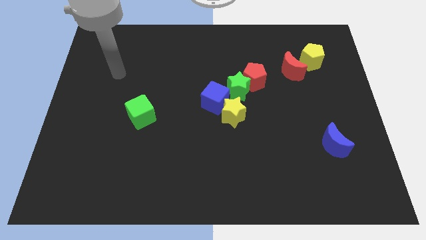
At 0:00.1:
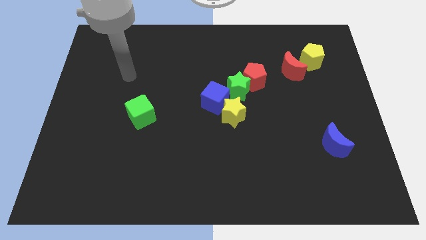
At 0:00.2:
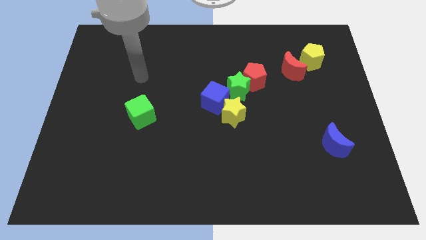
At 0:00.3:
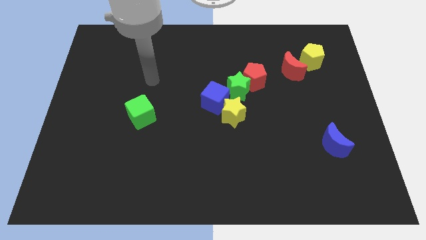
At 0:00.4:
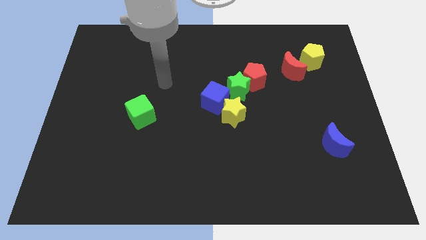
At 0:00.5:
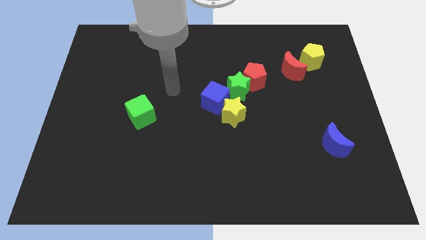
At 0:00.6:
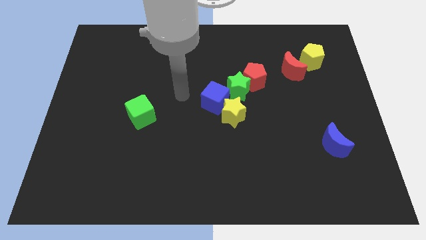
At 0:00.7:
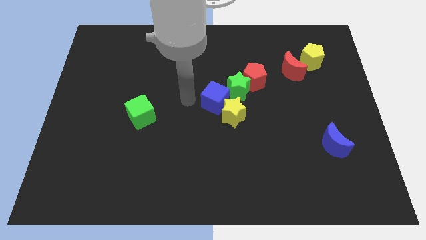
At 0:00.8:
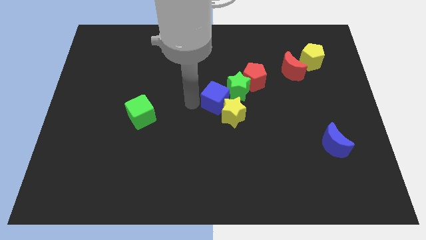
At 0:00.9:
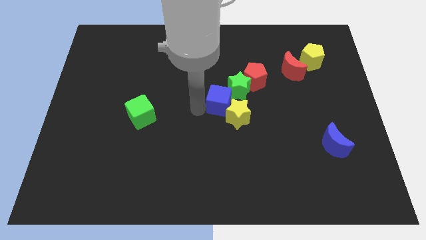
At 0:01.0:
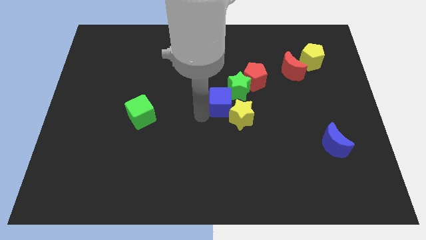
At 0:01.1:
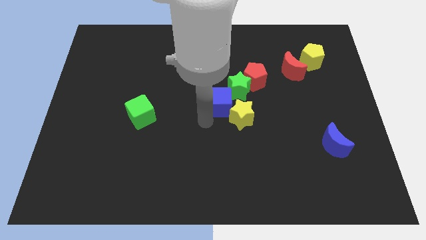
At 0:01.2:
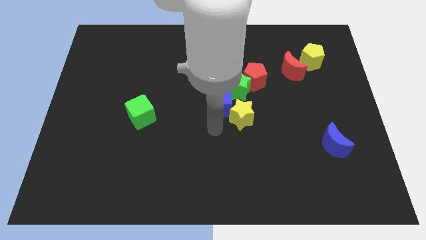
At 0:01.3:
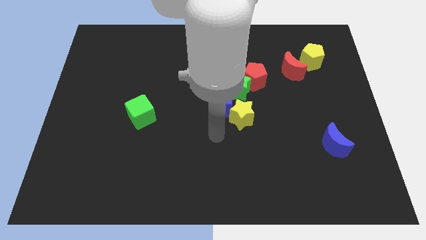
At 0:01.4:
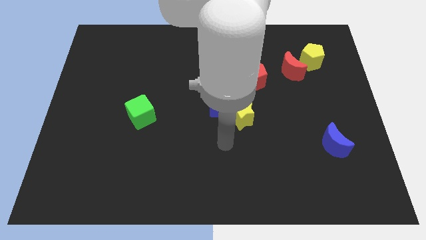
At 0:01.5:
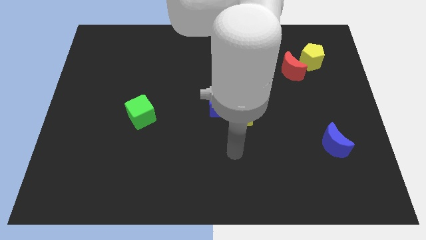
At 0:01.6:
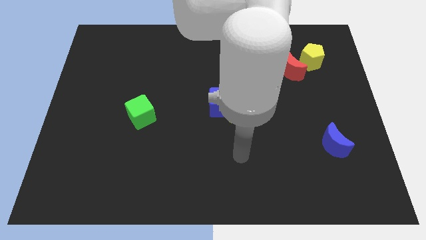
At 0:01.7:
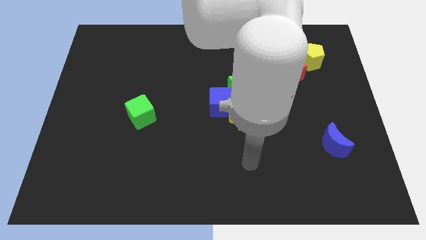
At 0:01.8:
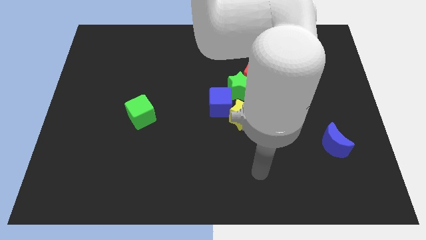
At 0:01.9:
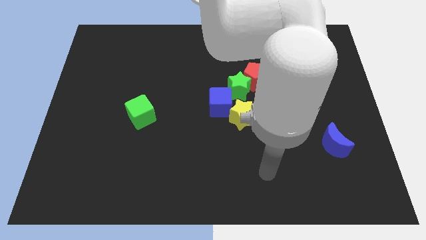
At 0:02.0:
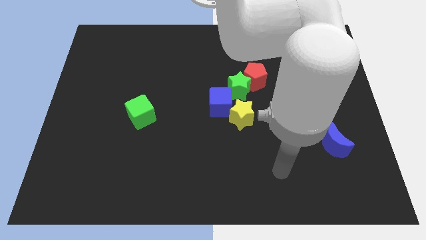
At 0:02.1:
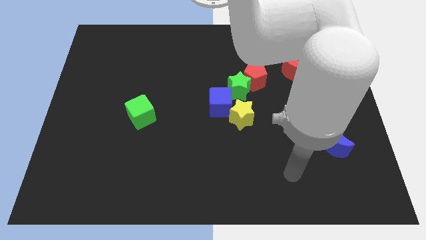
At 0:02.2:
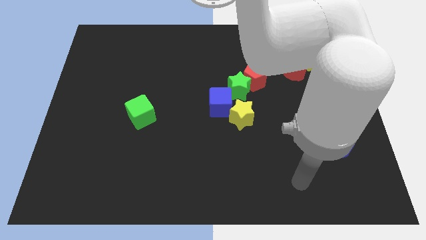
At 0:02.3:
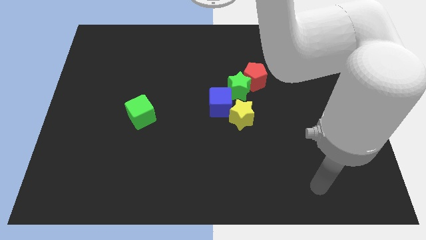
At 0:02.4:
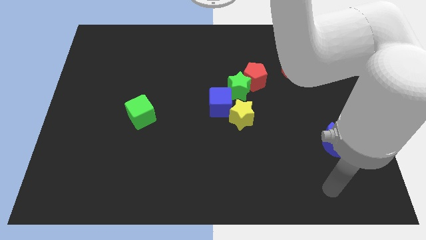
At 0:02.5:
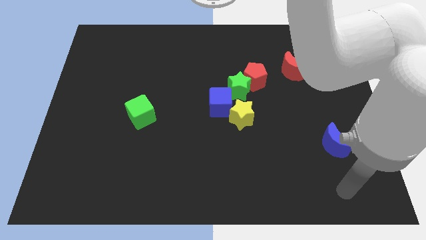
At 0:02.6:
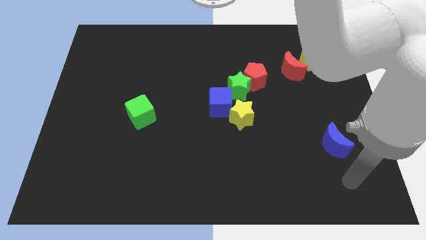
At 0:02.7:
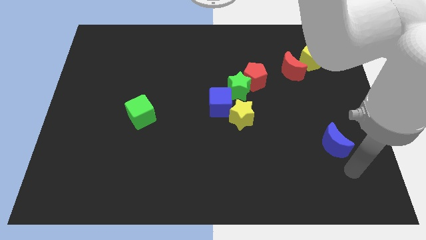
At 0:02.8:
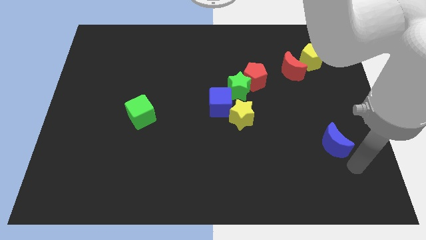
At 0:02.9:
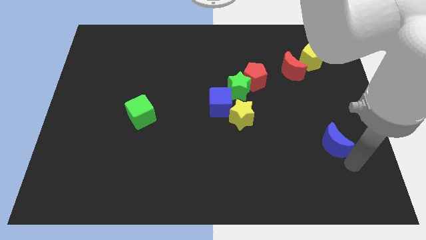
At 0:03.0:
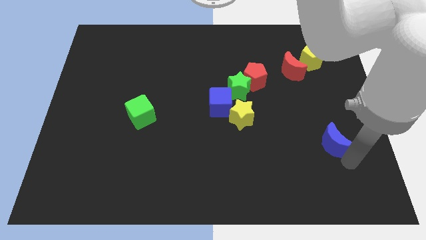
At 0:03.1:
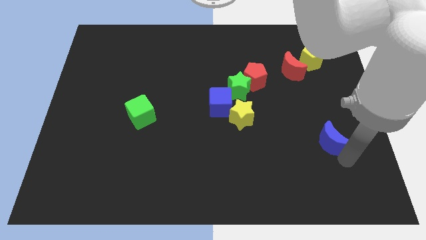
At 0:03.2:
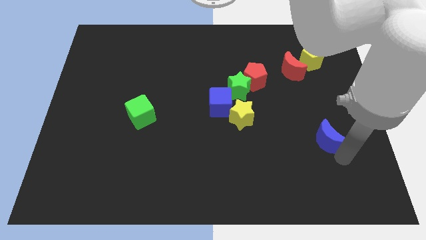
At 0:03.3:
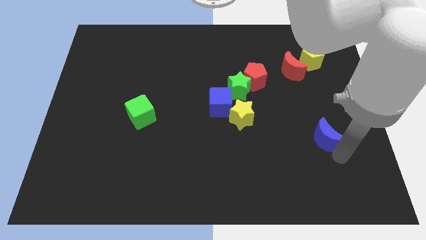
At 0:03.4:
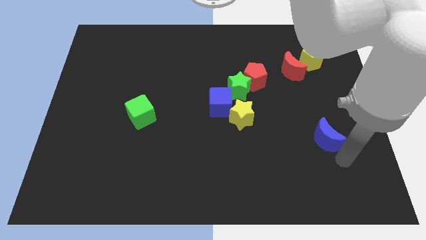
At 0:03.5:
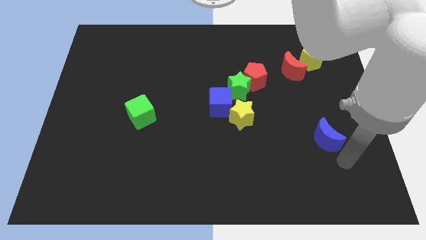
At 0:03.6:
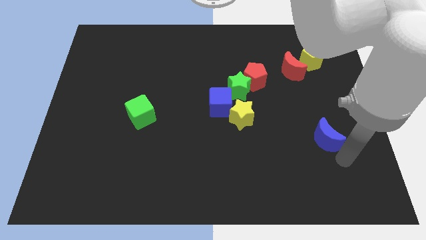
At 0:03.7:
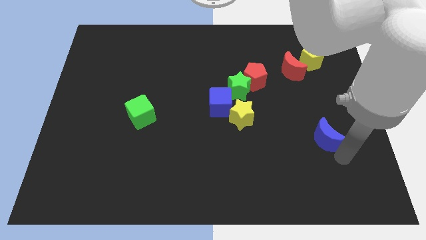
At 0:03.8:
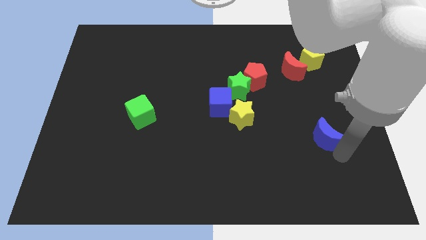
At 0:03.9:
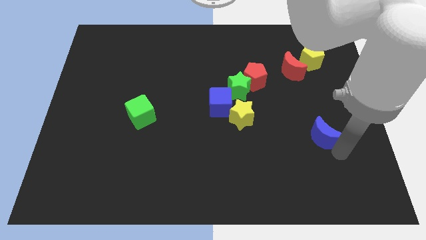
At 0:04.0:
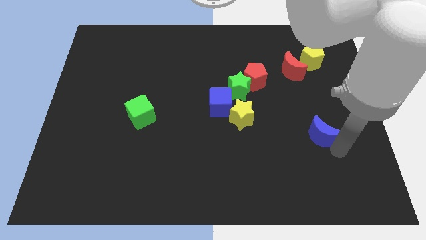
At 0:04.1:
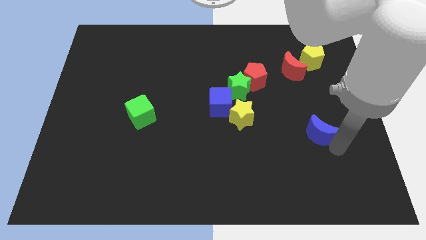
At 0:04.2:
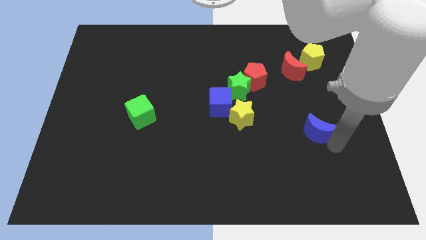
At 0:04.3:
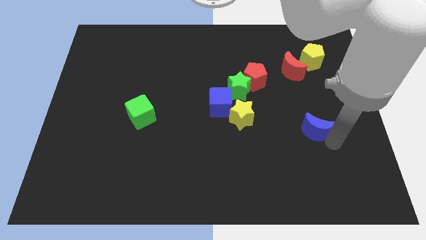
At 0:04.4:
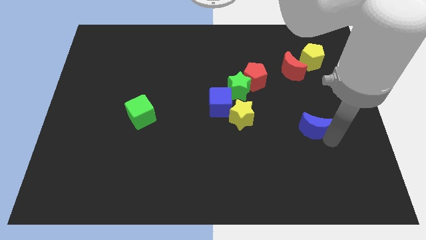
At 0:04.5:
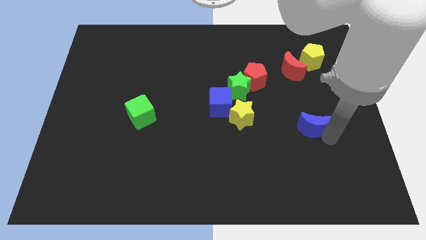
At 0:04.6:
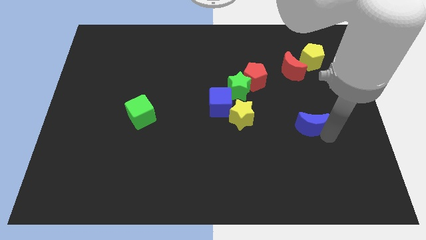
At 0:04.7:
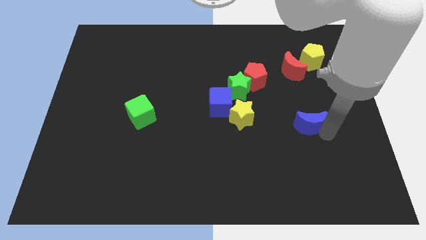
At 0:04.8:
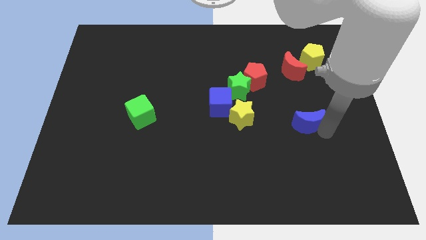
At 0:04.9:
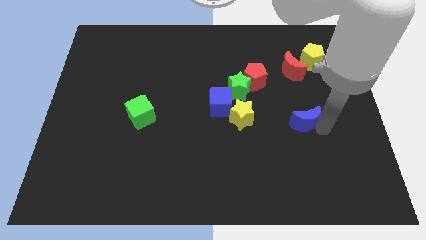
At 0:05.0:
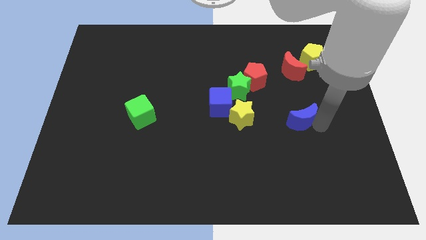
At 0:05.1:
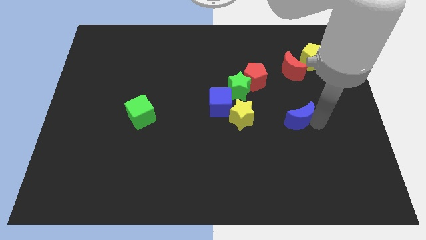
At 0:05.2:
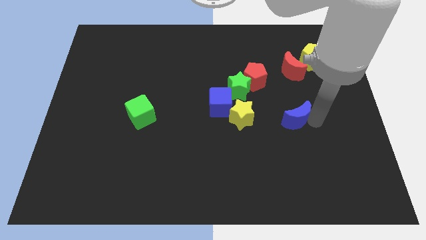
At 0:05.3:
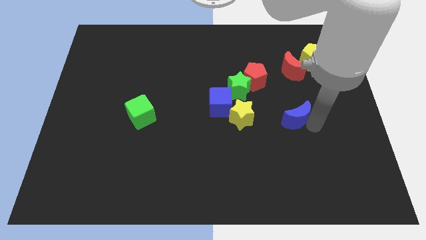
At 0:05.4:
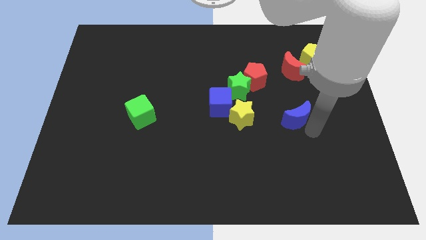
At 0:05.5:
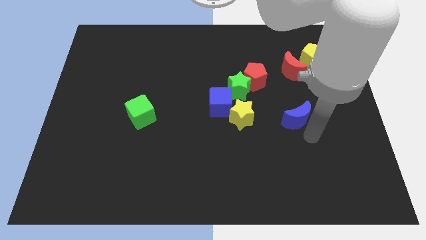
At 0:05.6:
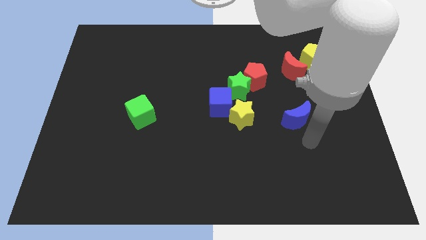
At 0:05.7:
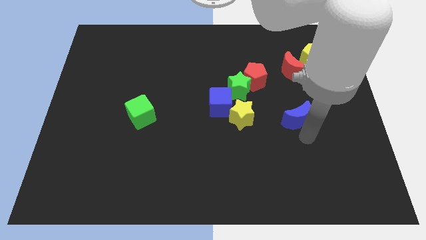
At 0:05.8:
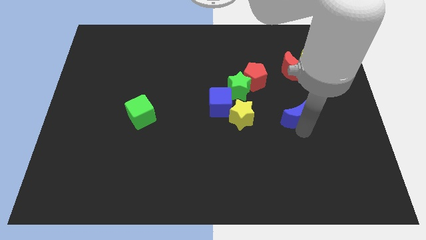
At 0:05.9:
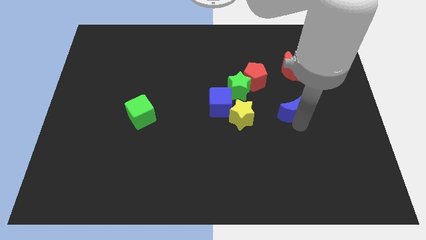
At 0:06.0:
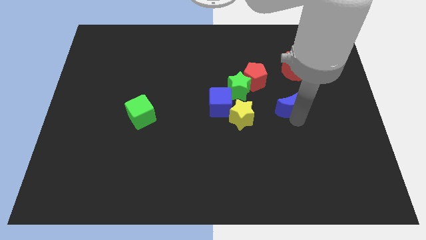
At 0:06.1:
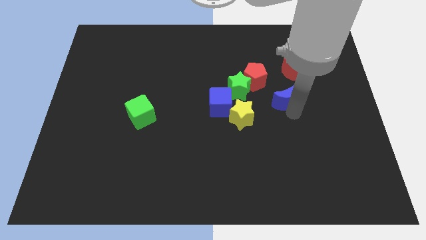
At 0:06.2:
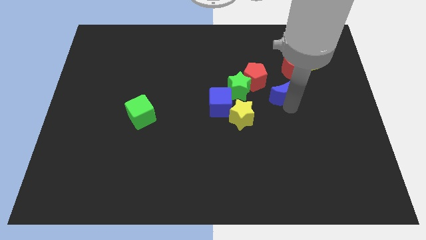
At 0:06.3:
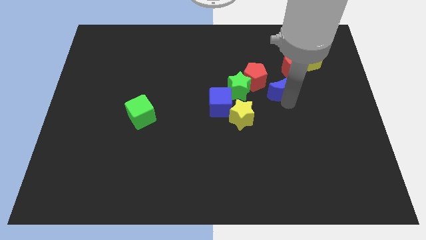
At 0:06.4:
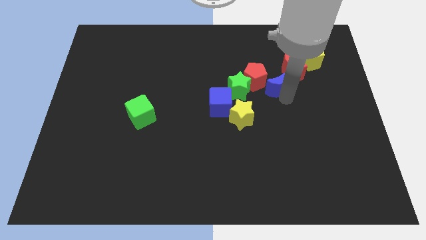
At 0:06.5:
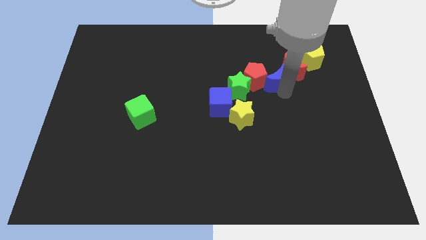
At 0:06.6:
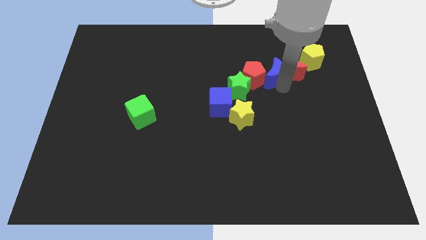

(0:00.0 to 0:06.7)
push the blue moon to the top right side of the green star

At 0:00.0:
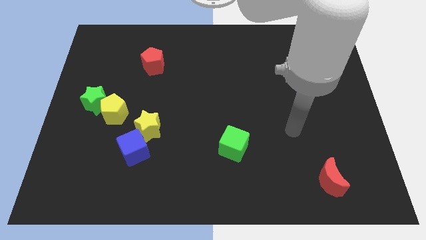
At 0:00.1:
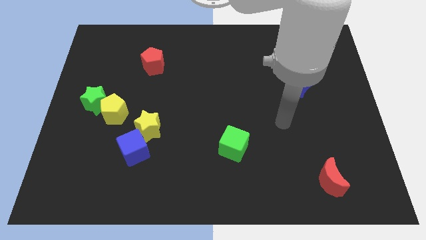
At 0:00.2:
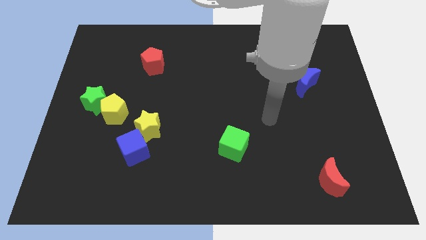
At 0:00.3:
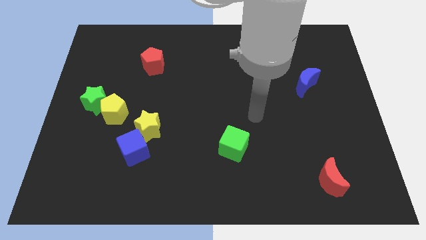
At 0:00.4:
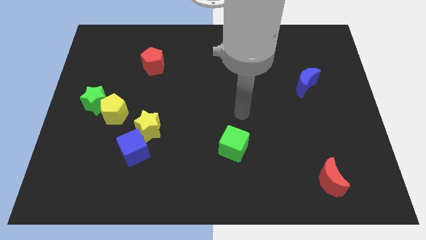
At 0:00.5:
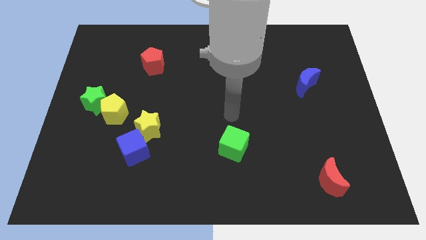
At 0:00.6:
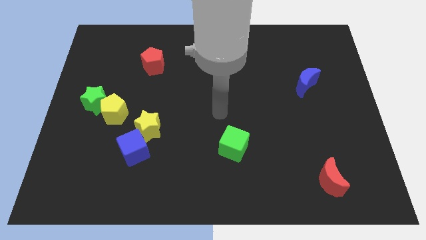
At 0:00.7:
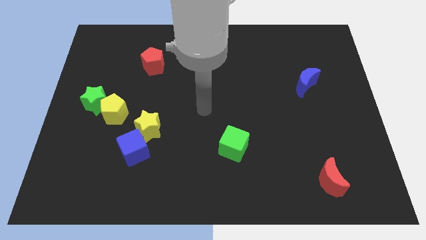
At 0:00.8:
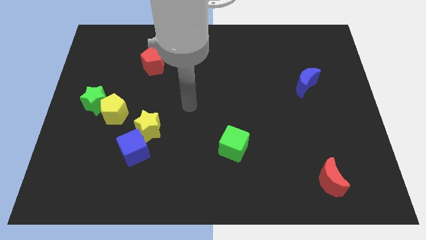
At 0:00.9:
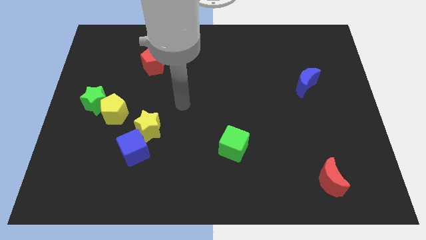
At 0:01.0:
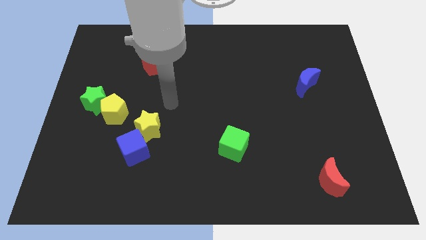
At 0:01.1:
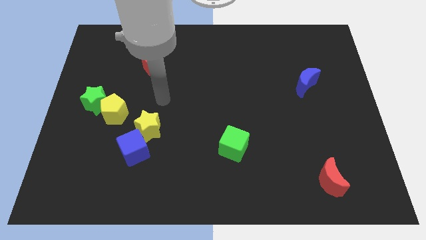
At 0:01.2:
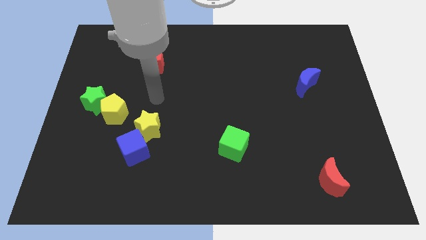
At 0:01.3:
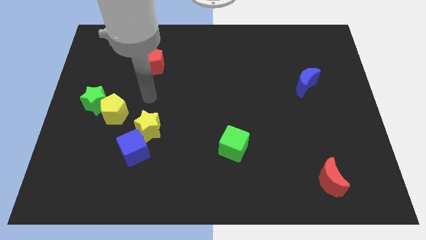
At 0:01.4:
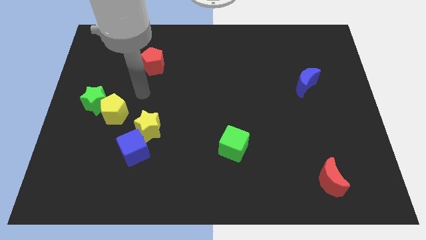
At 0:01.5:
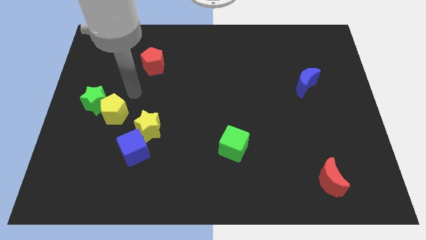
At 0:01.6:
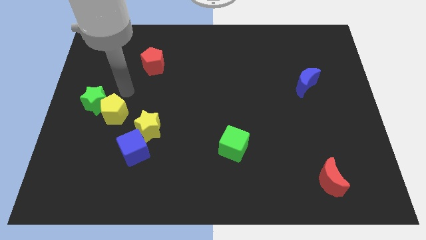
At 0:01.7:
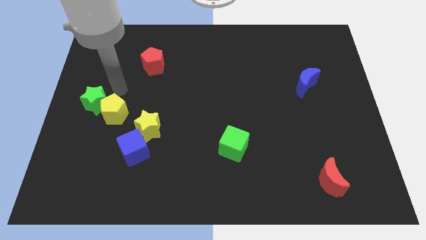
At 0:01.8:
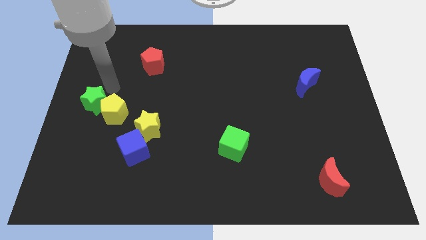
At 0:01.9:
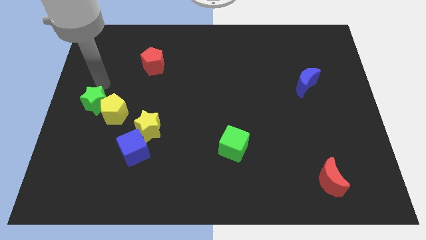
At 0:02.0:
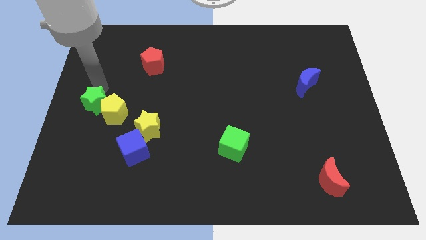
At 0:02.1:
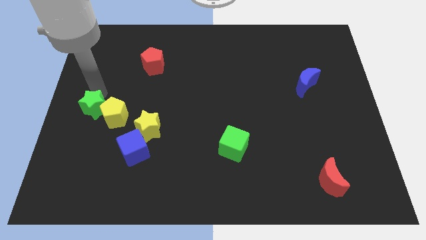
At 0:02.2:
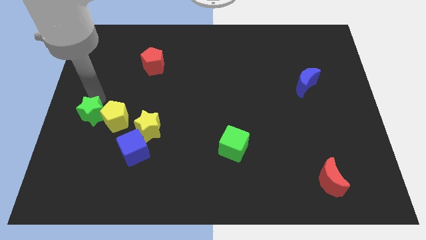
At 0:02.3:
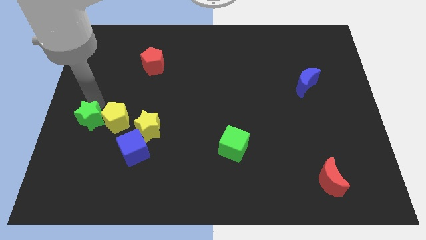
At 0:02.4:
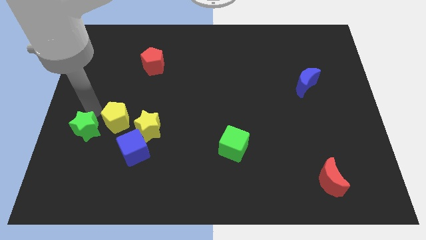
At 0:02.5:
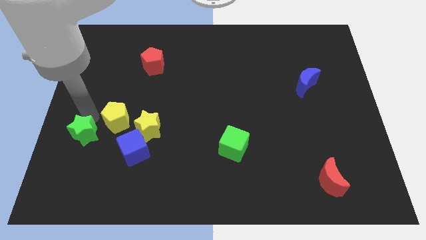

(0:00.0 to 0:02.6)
push the green star just left of the blue cube
